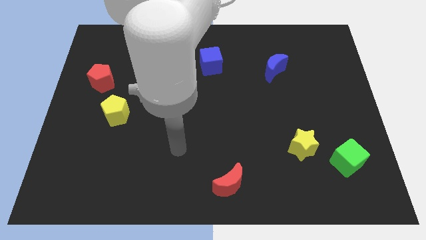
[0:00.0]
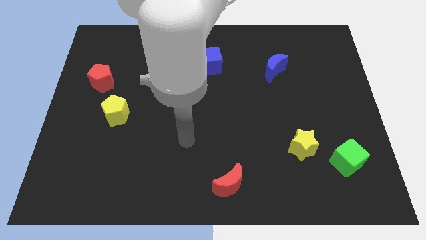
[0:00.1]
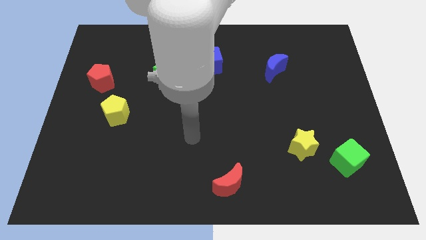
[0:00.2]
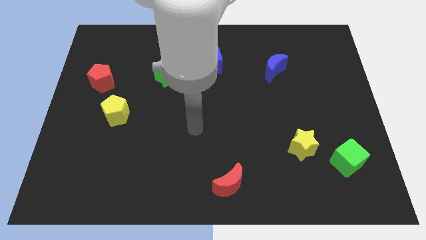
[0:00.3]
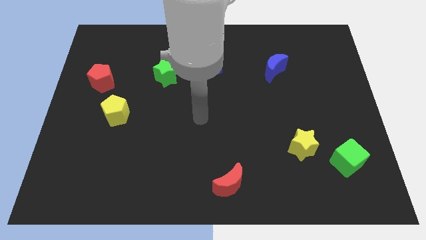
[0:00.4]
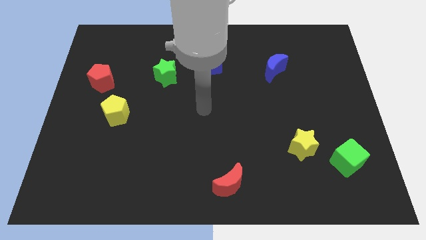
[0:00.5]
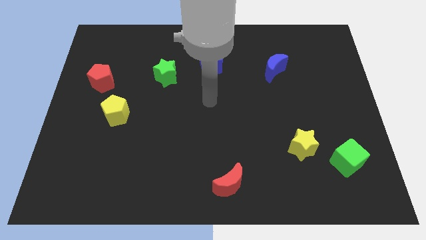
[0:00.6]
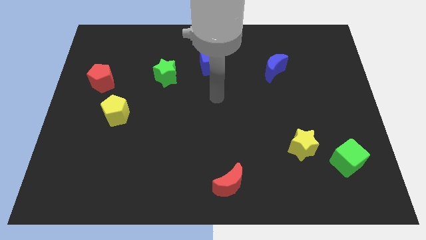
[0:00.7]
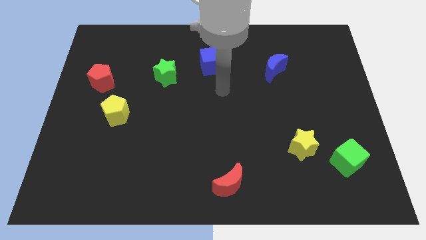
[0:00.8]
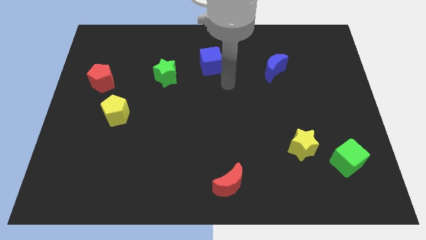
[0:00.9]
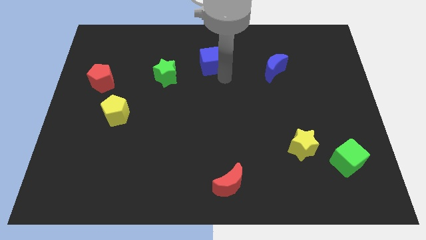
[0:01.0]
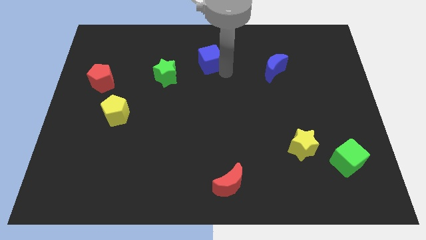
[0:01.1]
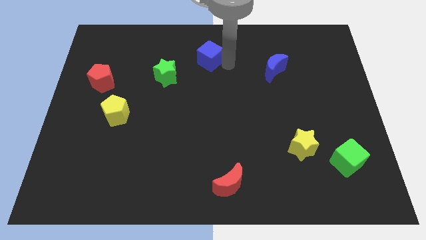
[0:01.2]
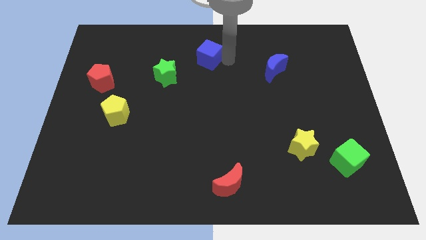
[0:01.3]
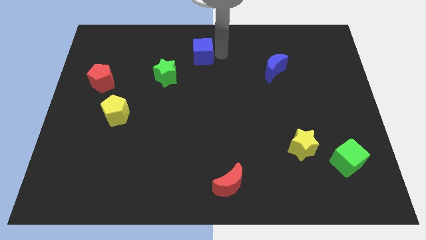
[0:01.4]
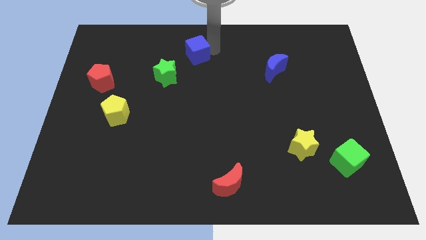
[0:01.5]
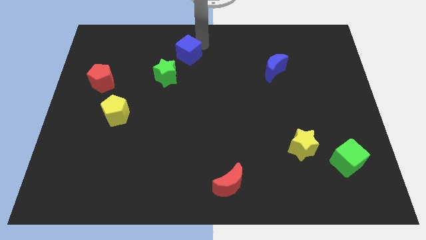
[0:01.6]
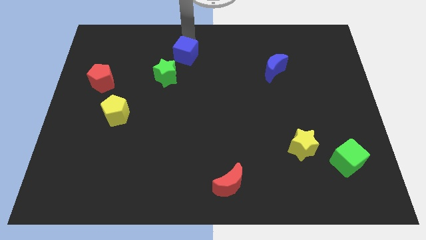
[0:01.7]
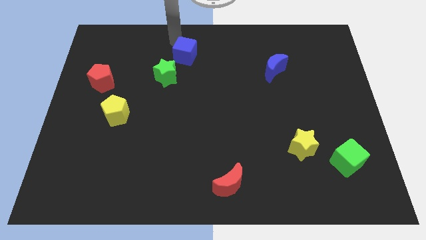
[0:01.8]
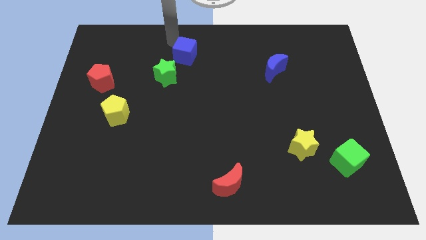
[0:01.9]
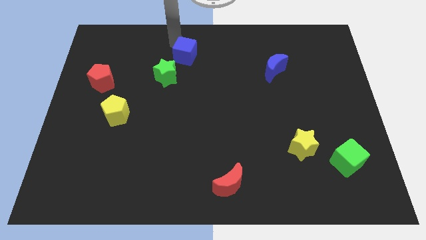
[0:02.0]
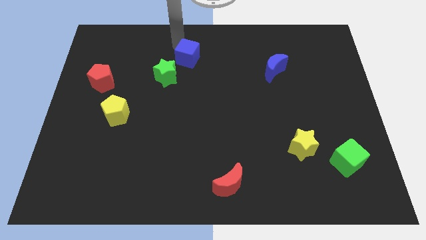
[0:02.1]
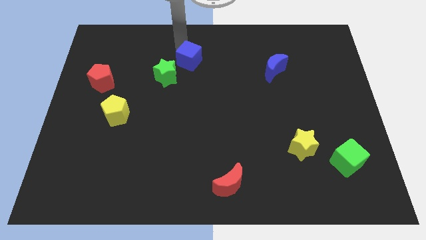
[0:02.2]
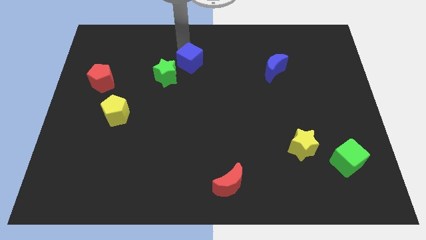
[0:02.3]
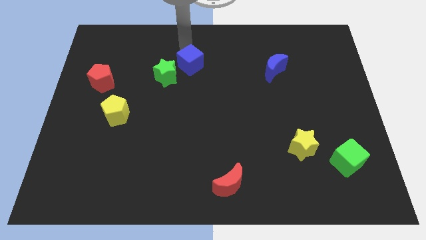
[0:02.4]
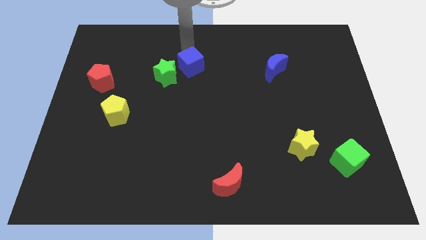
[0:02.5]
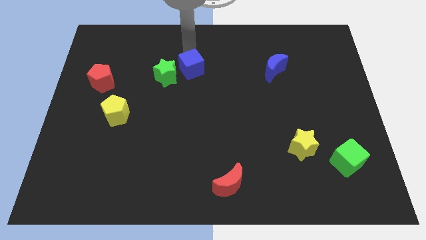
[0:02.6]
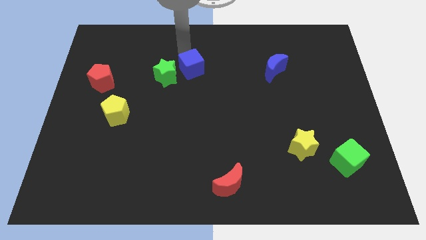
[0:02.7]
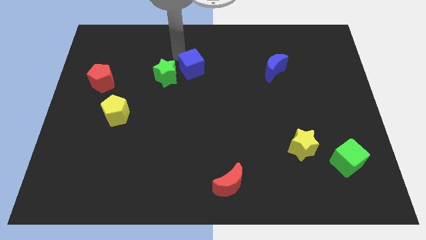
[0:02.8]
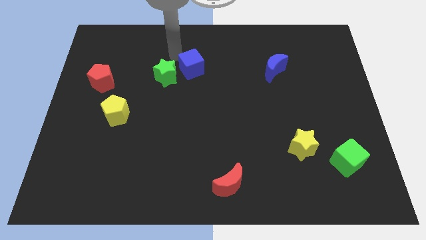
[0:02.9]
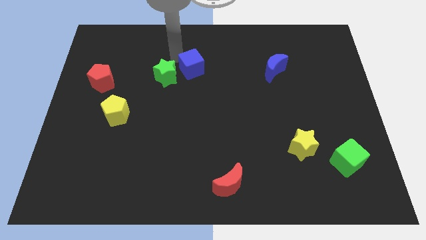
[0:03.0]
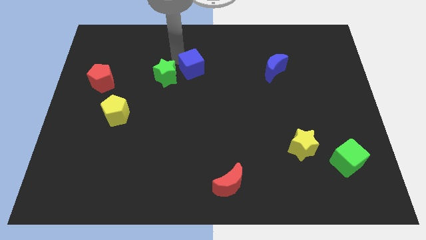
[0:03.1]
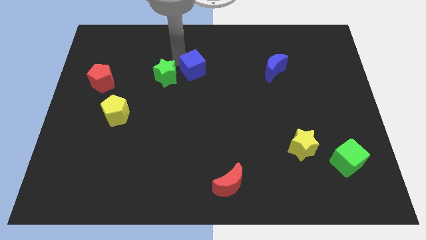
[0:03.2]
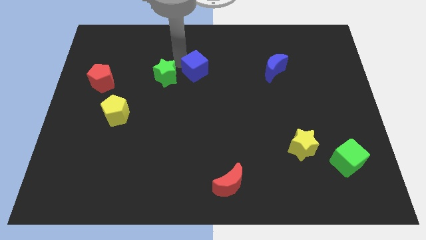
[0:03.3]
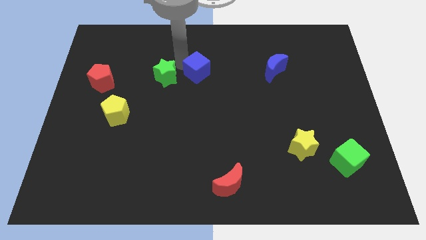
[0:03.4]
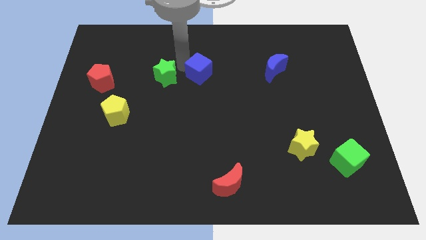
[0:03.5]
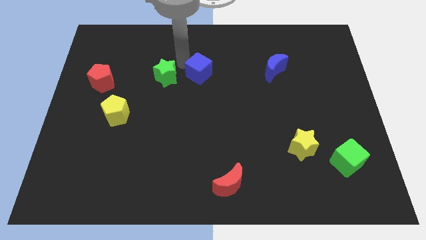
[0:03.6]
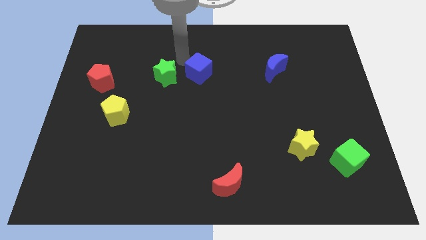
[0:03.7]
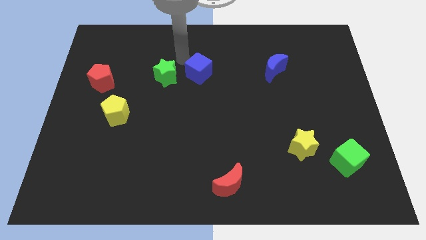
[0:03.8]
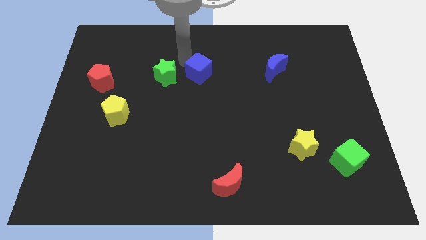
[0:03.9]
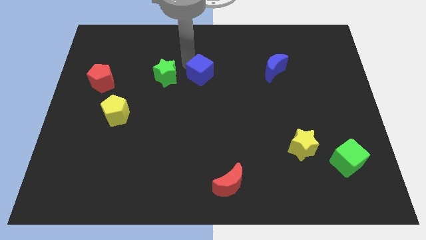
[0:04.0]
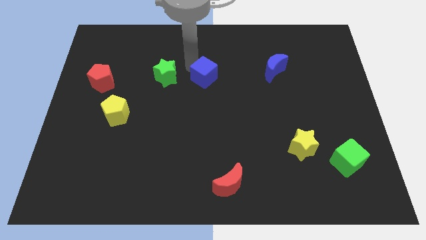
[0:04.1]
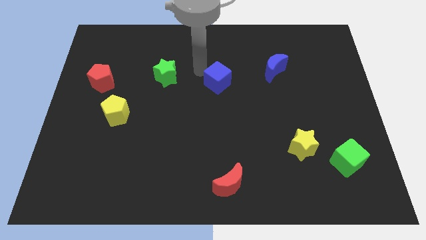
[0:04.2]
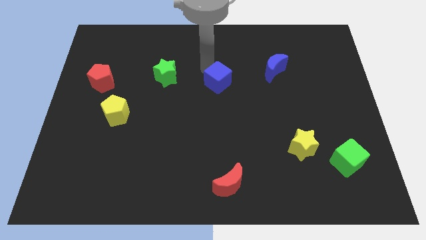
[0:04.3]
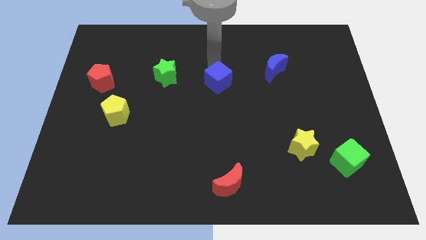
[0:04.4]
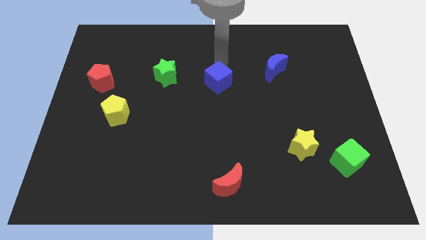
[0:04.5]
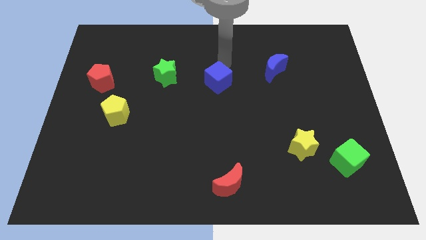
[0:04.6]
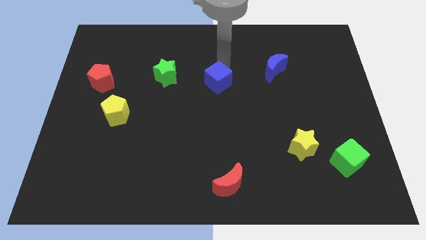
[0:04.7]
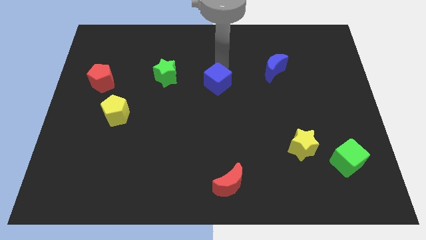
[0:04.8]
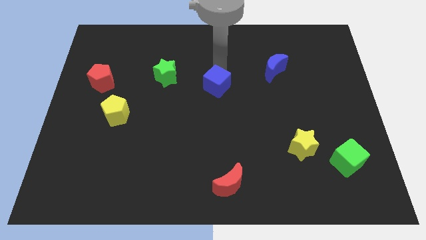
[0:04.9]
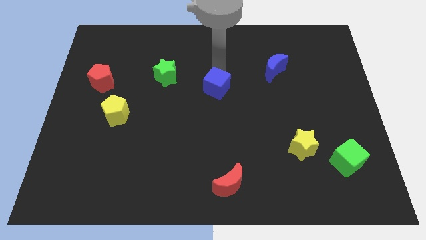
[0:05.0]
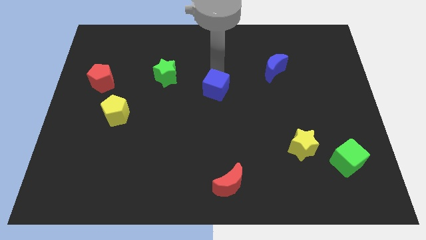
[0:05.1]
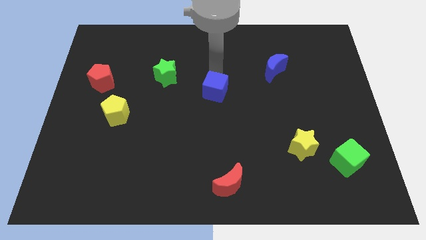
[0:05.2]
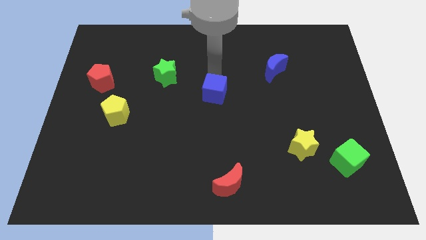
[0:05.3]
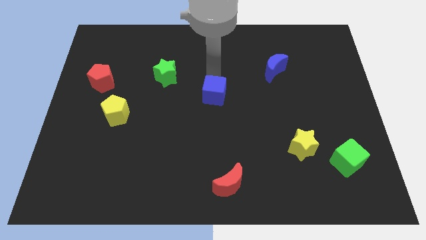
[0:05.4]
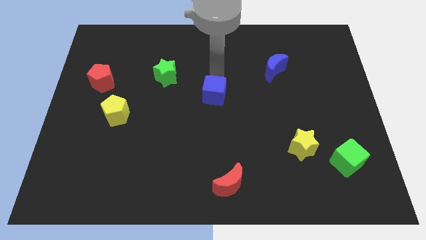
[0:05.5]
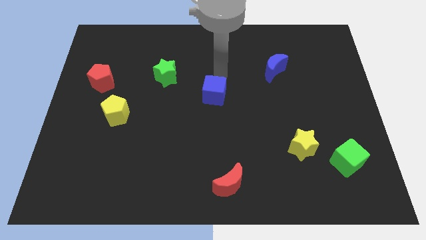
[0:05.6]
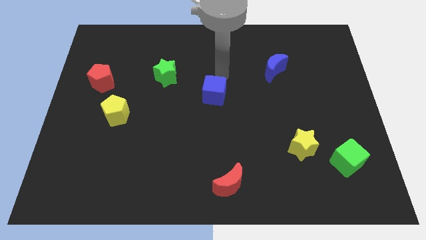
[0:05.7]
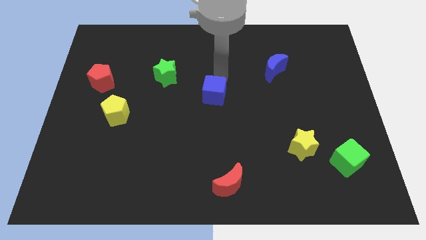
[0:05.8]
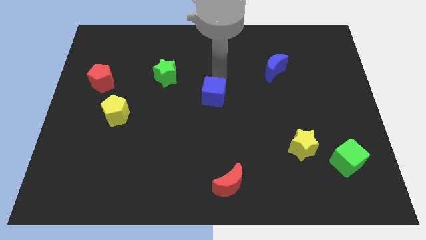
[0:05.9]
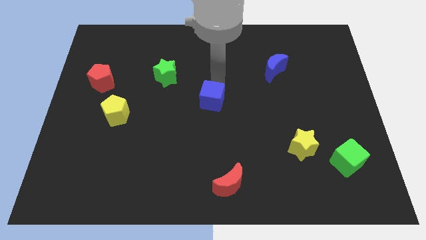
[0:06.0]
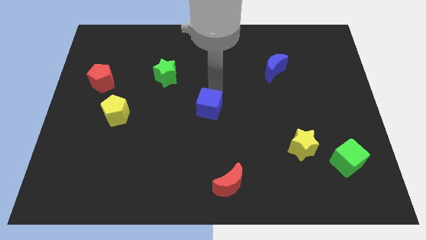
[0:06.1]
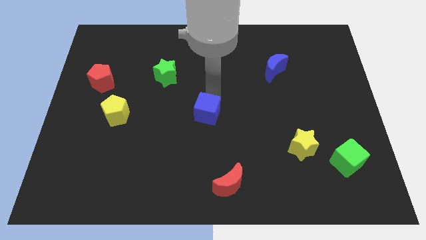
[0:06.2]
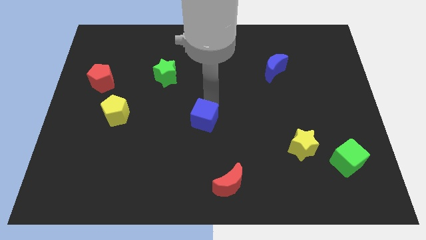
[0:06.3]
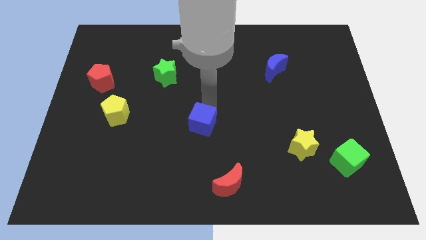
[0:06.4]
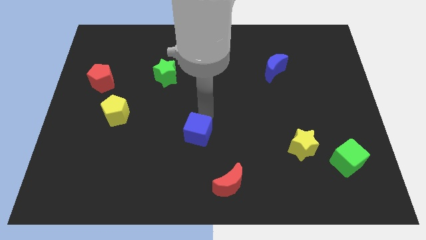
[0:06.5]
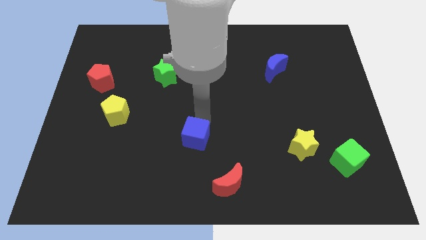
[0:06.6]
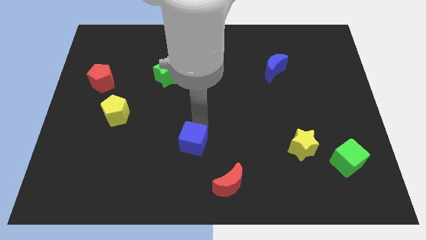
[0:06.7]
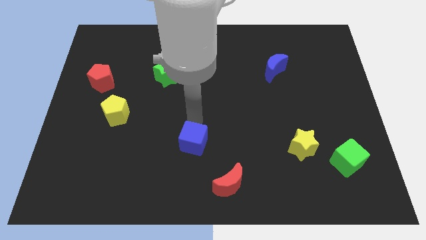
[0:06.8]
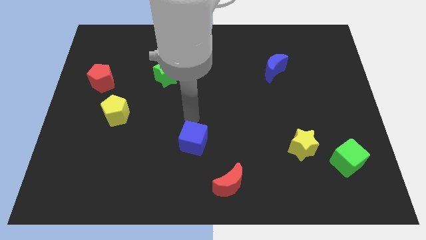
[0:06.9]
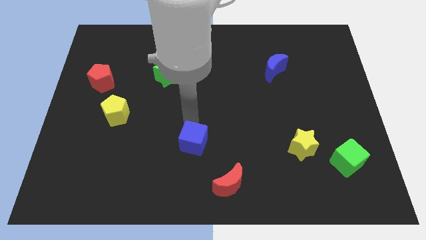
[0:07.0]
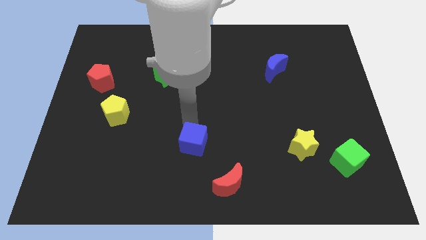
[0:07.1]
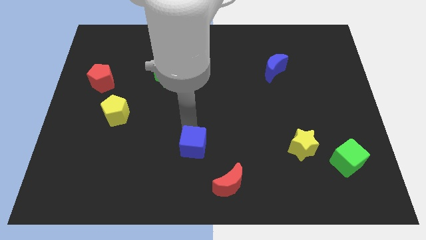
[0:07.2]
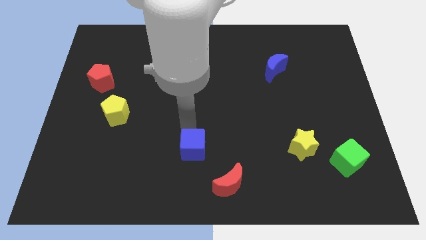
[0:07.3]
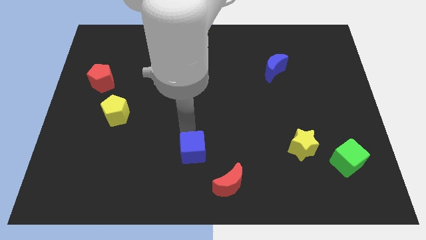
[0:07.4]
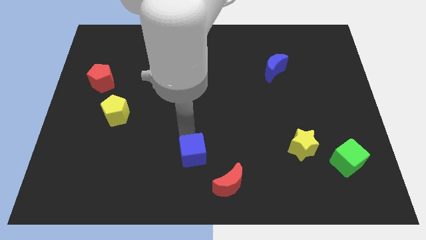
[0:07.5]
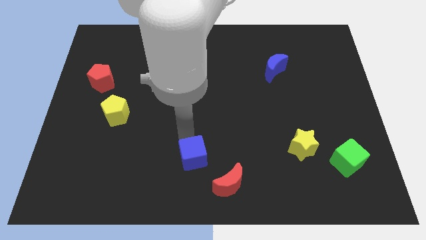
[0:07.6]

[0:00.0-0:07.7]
slide the blue cube to the bottom
